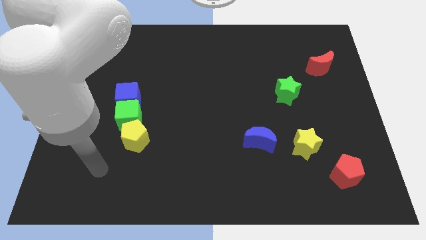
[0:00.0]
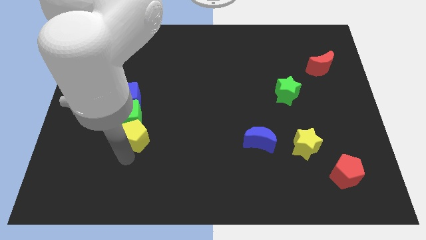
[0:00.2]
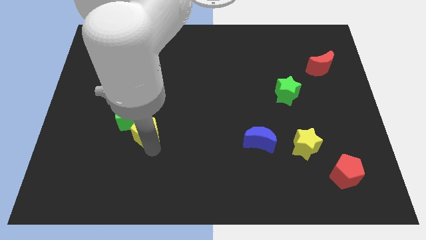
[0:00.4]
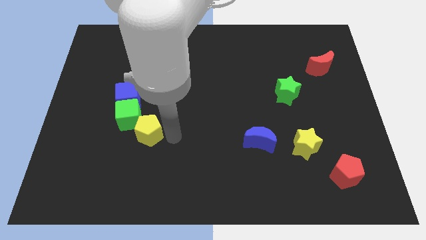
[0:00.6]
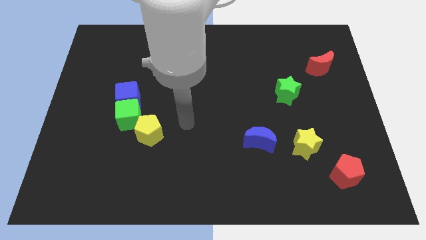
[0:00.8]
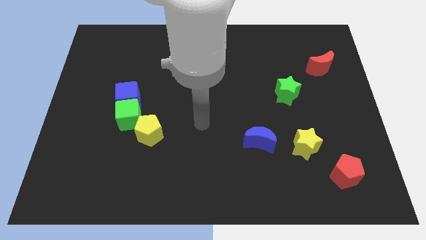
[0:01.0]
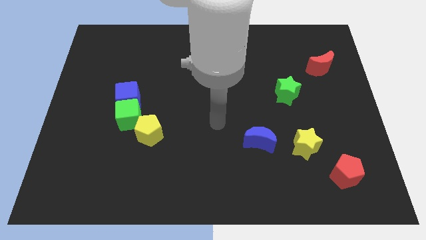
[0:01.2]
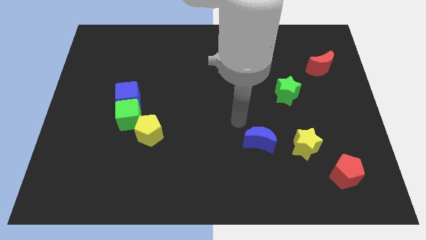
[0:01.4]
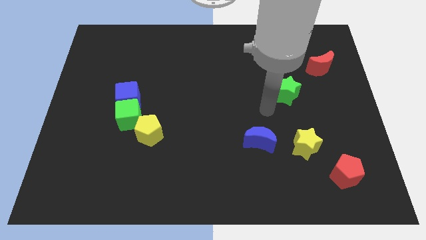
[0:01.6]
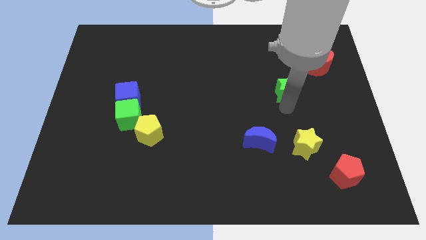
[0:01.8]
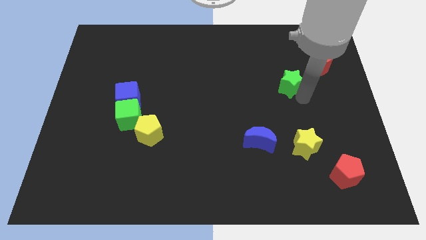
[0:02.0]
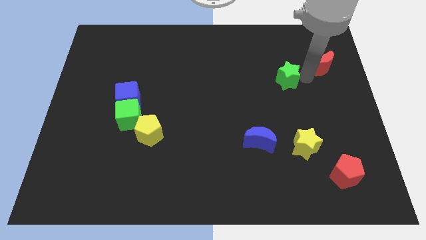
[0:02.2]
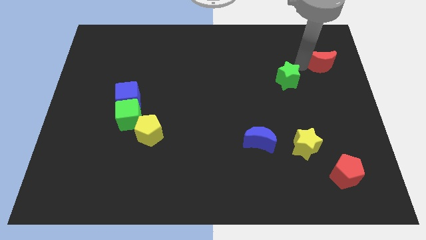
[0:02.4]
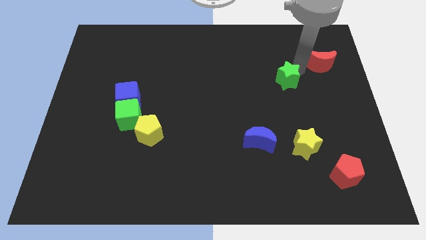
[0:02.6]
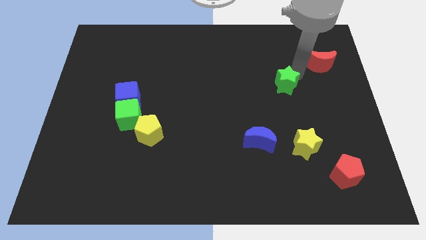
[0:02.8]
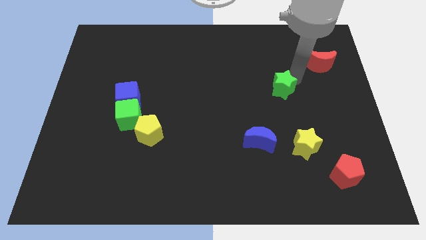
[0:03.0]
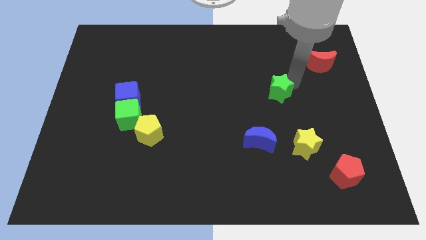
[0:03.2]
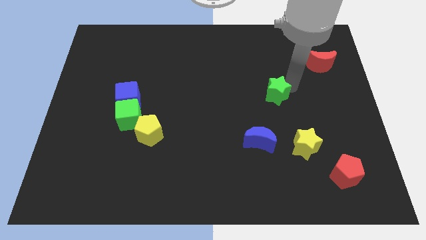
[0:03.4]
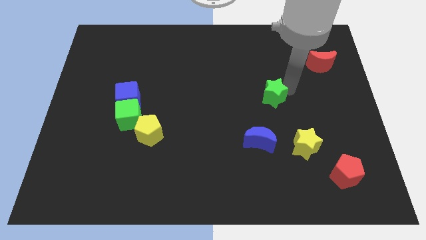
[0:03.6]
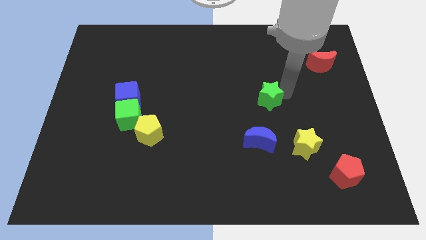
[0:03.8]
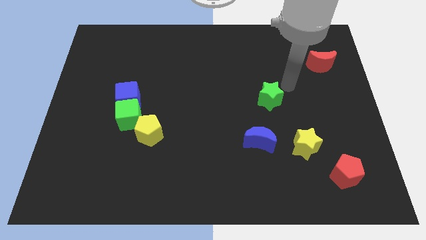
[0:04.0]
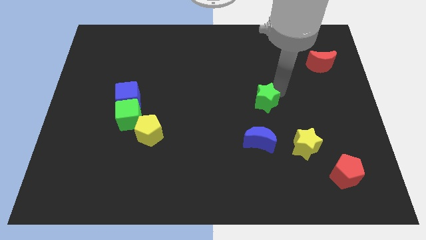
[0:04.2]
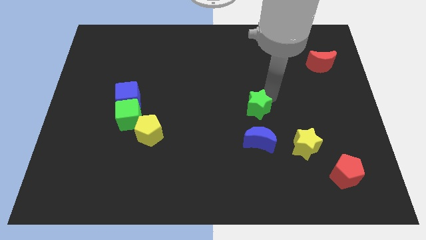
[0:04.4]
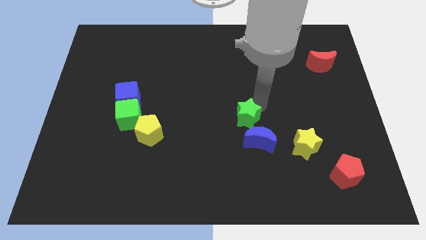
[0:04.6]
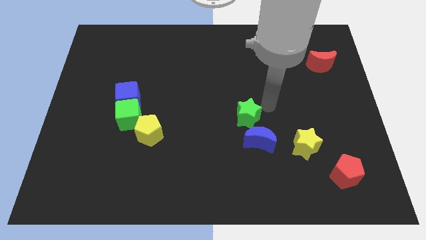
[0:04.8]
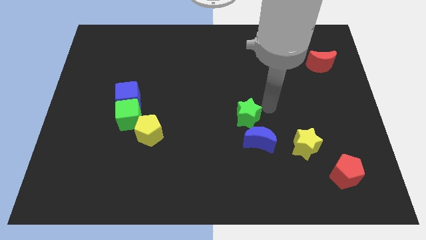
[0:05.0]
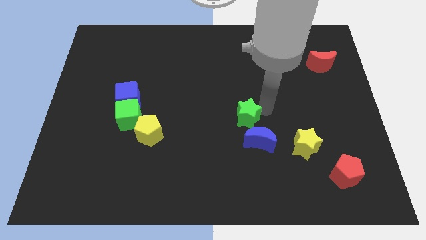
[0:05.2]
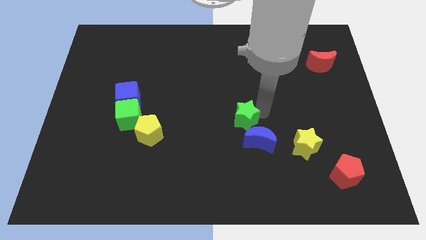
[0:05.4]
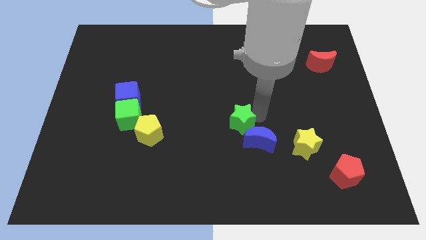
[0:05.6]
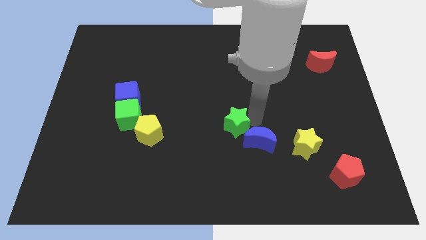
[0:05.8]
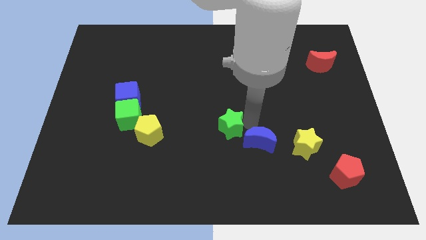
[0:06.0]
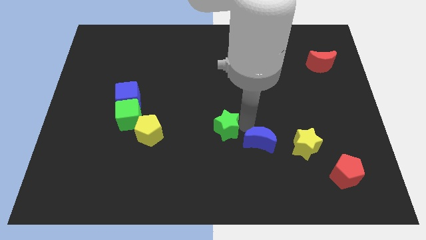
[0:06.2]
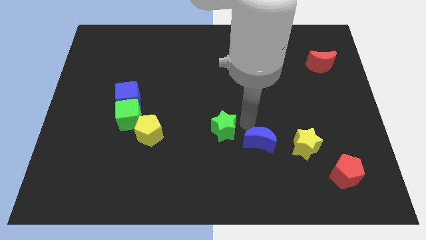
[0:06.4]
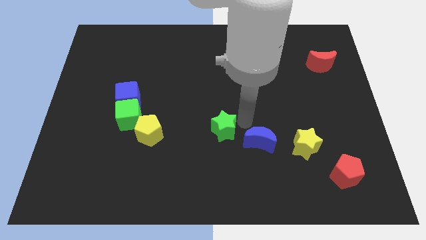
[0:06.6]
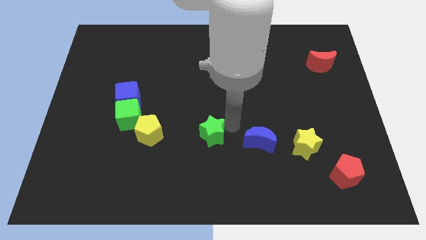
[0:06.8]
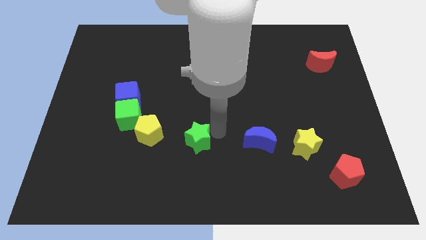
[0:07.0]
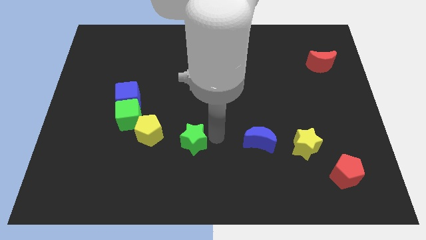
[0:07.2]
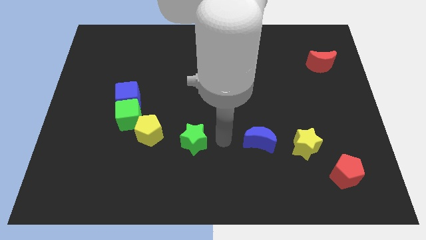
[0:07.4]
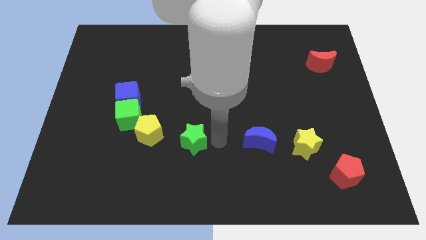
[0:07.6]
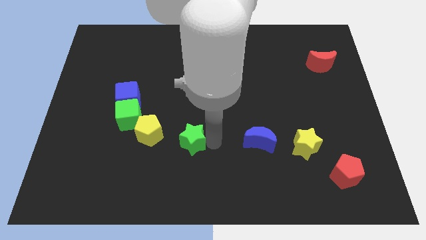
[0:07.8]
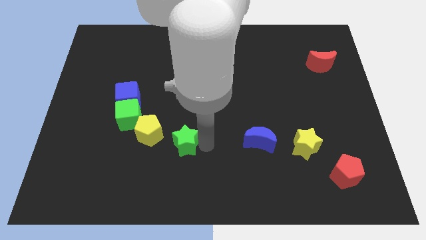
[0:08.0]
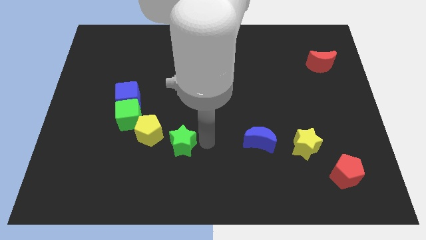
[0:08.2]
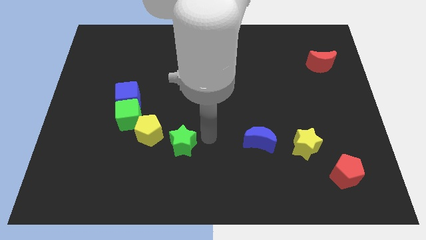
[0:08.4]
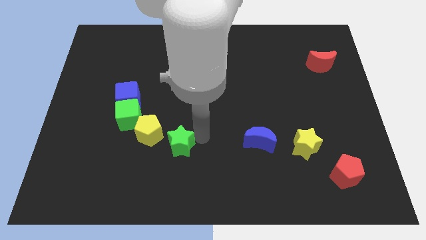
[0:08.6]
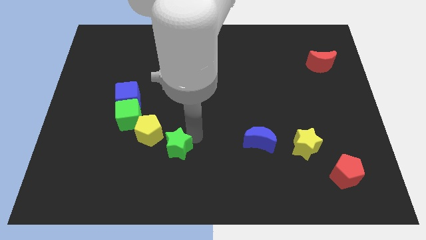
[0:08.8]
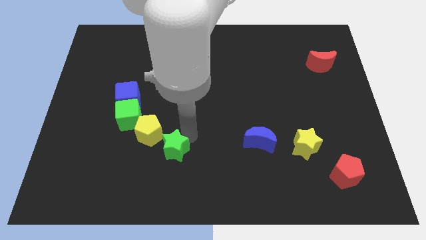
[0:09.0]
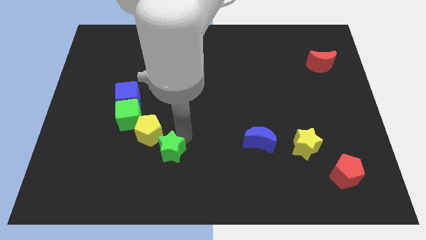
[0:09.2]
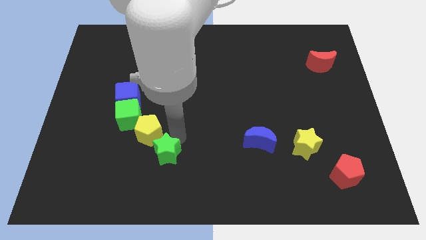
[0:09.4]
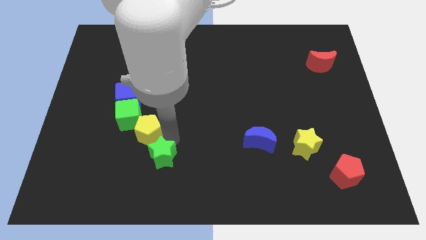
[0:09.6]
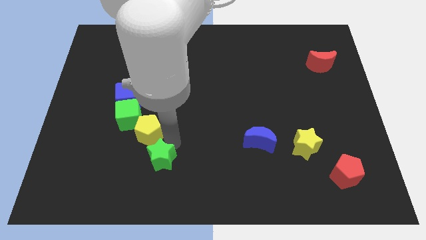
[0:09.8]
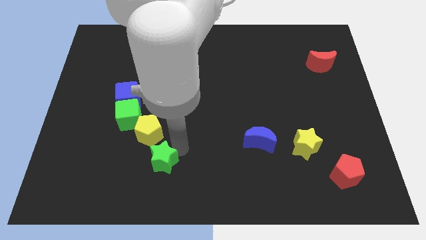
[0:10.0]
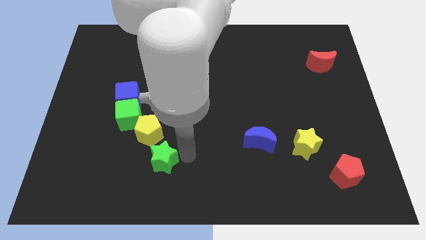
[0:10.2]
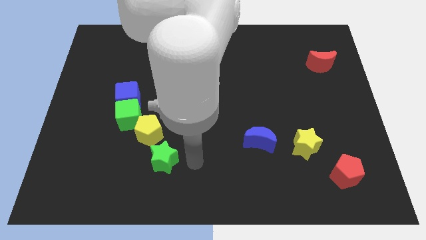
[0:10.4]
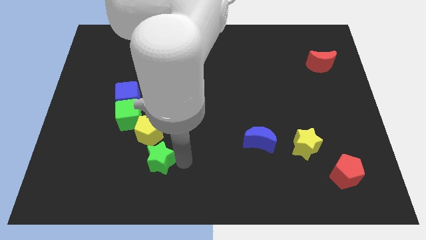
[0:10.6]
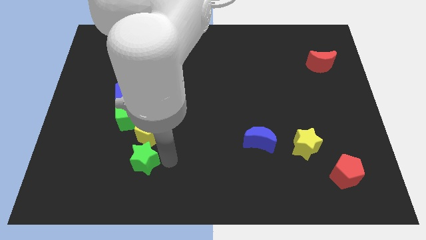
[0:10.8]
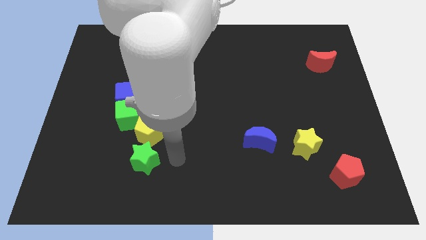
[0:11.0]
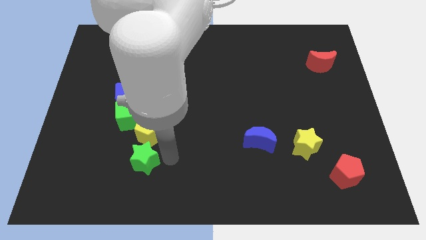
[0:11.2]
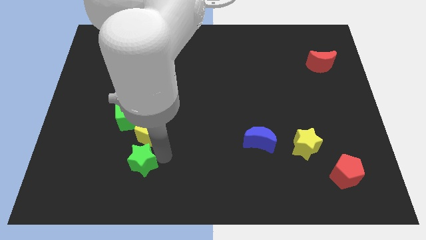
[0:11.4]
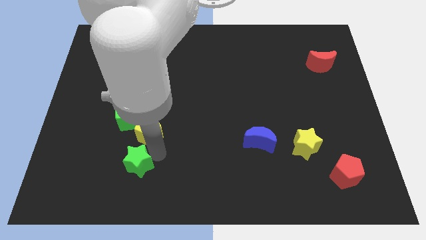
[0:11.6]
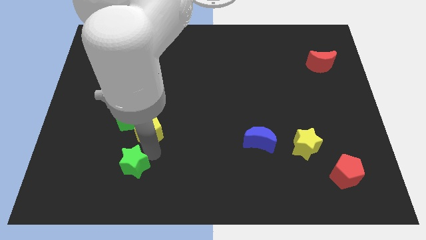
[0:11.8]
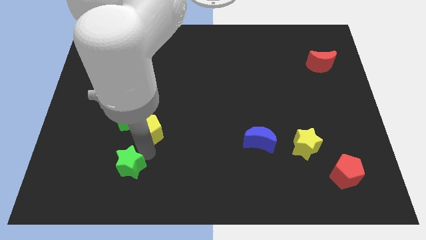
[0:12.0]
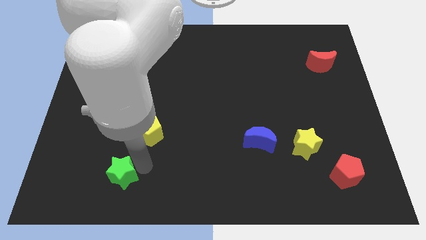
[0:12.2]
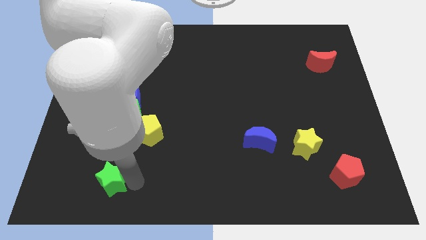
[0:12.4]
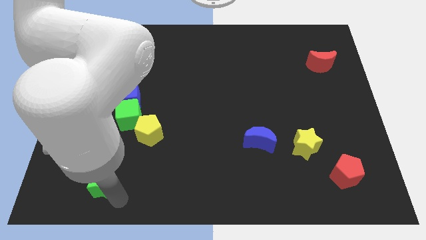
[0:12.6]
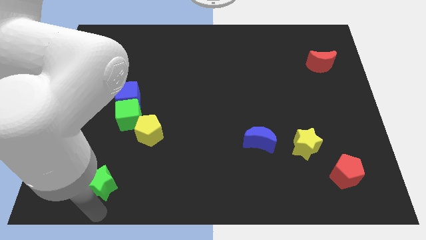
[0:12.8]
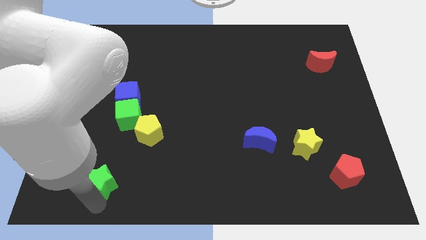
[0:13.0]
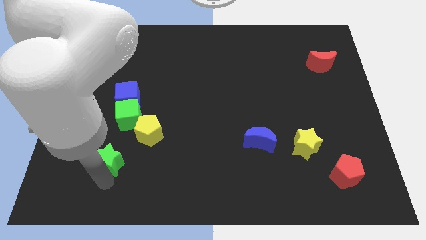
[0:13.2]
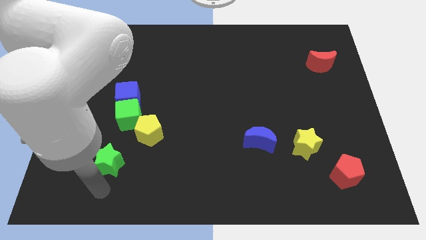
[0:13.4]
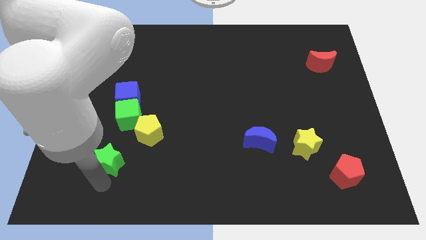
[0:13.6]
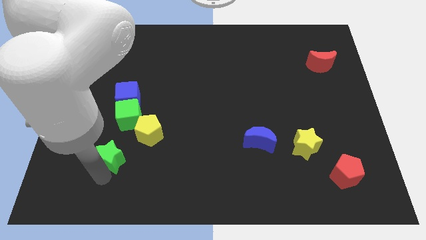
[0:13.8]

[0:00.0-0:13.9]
slide the green star to the bottom of the blue cube

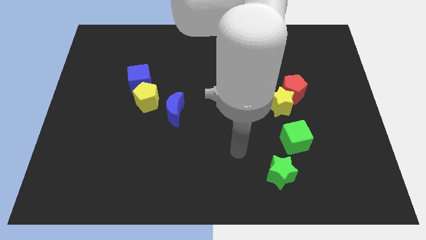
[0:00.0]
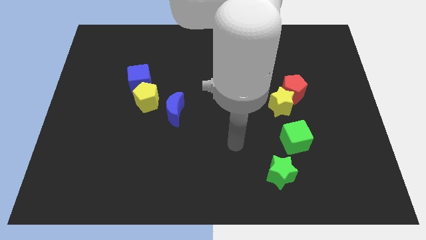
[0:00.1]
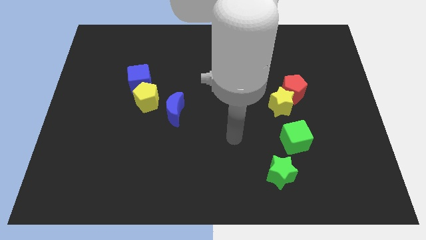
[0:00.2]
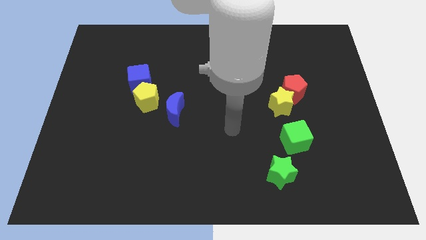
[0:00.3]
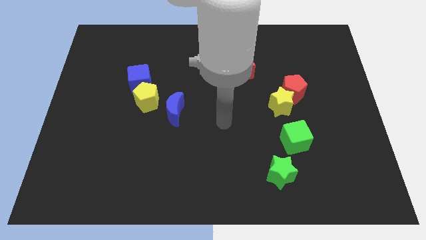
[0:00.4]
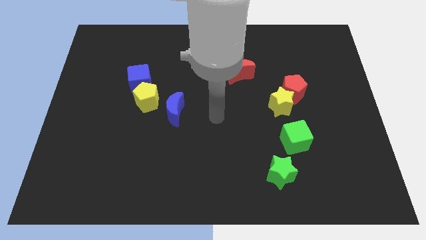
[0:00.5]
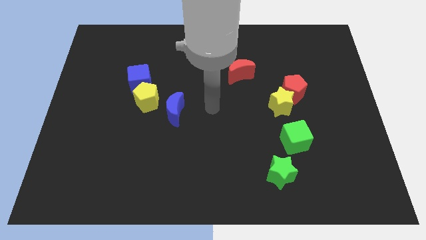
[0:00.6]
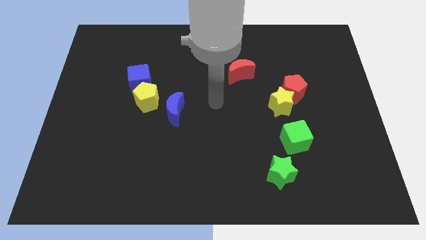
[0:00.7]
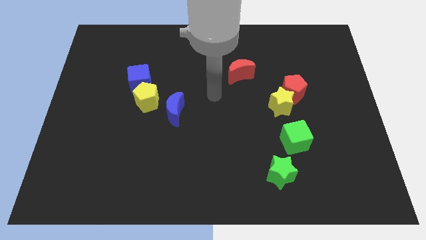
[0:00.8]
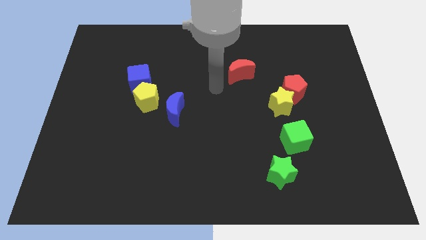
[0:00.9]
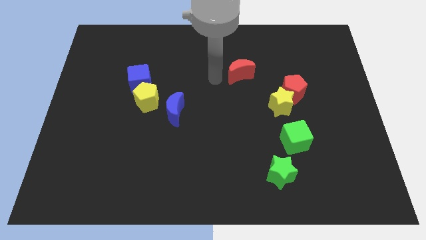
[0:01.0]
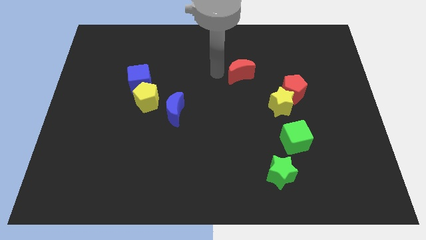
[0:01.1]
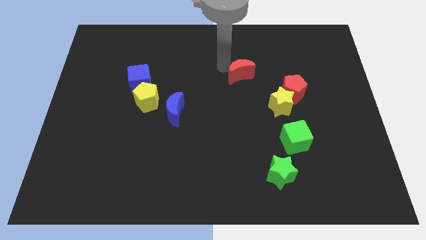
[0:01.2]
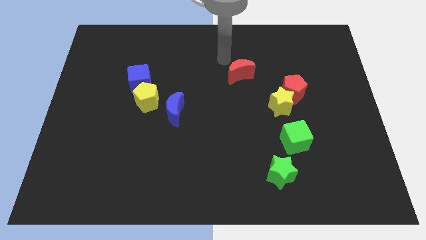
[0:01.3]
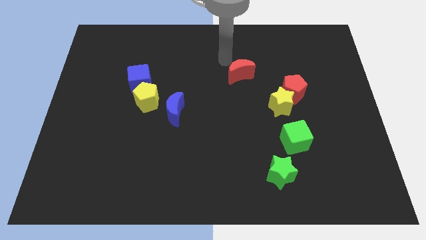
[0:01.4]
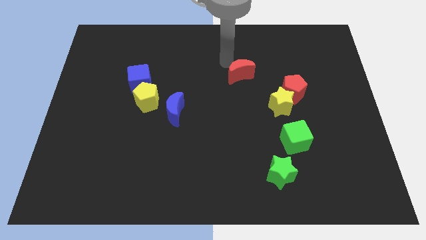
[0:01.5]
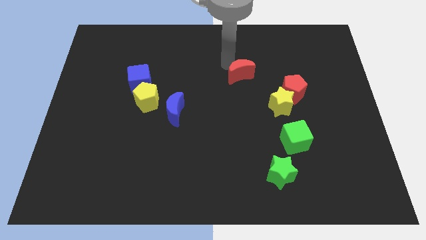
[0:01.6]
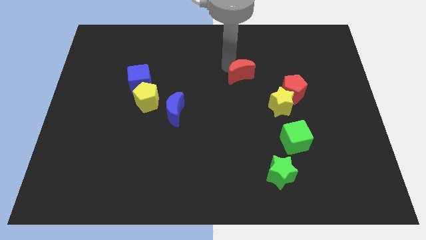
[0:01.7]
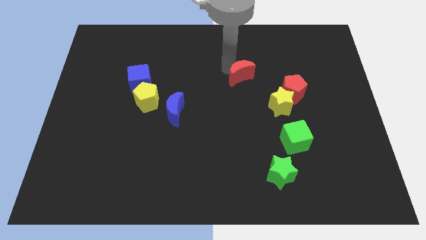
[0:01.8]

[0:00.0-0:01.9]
slide the red moon diagonally up and to the left of the yellow star
